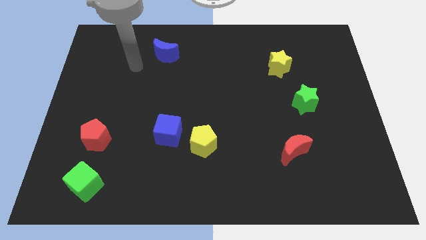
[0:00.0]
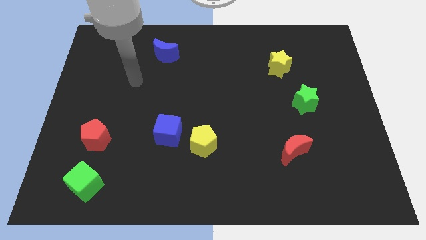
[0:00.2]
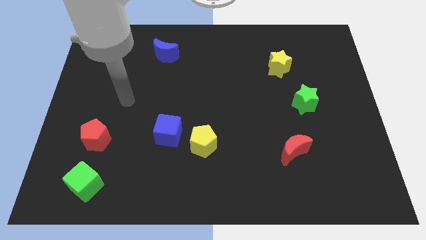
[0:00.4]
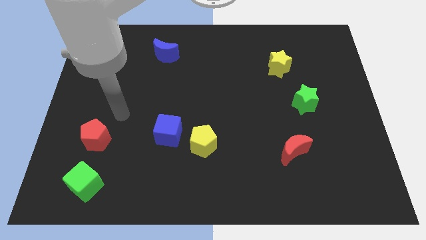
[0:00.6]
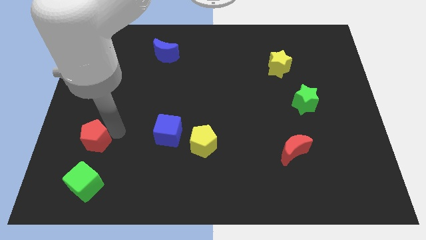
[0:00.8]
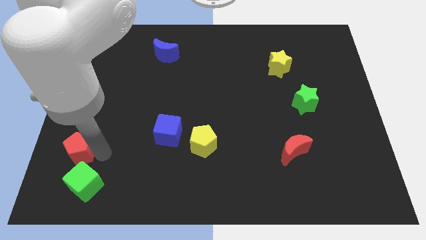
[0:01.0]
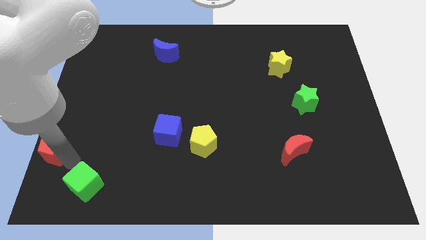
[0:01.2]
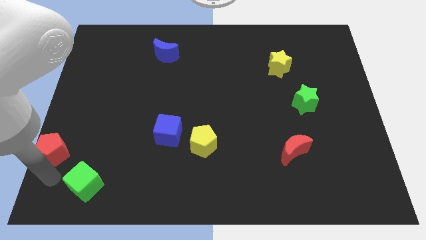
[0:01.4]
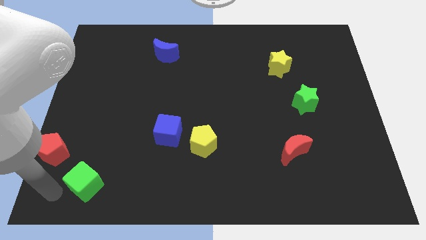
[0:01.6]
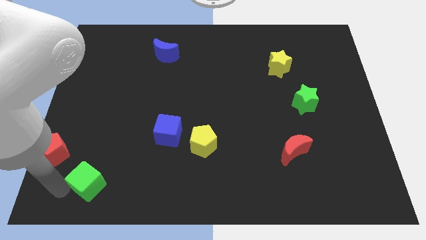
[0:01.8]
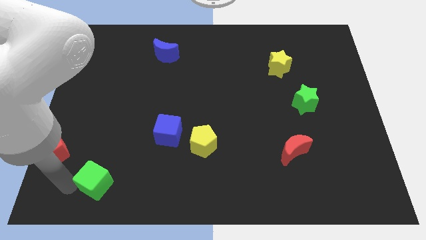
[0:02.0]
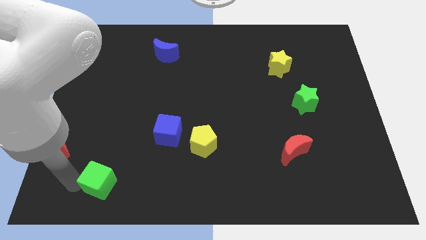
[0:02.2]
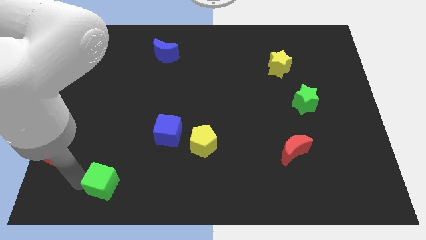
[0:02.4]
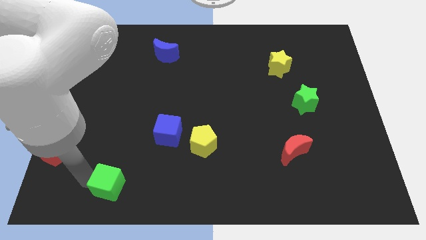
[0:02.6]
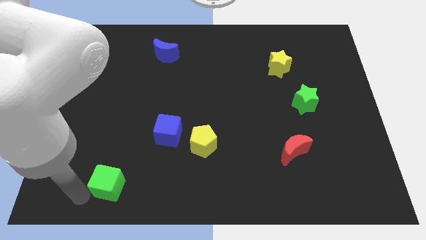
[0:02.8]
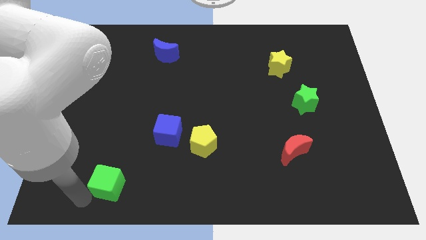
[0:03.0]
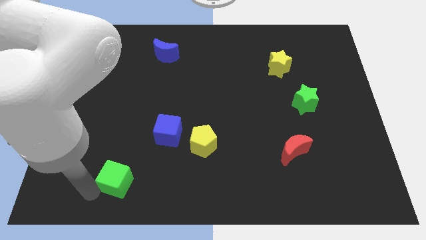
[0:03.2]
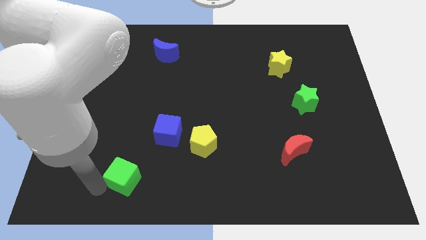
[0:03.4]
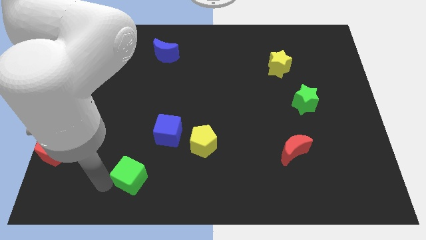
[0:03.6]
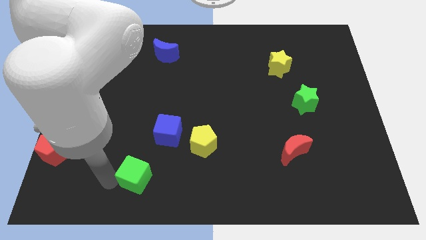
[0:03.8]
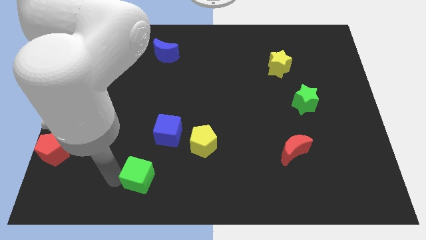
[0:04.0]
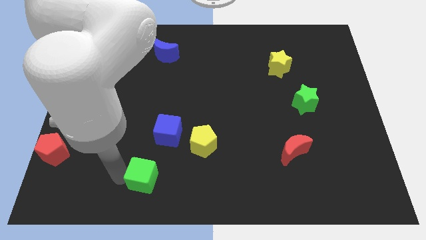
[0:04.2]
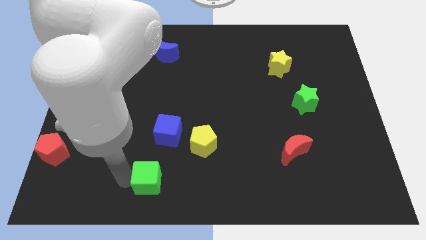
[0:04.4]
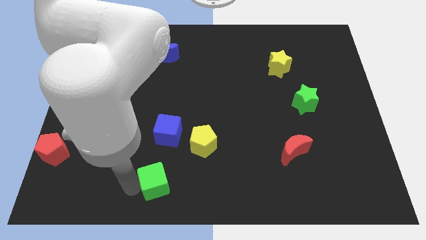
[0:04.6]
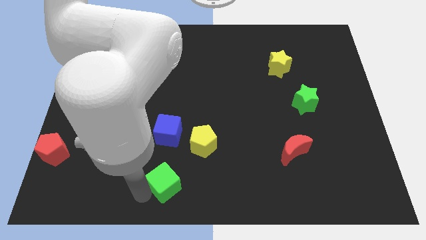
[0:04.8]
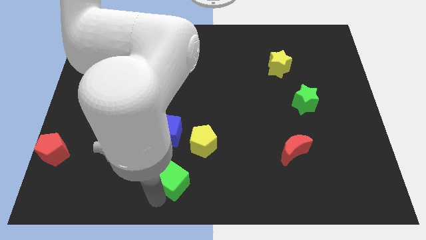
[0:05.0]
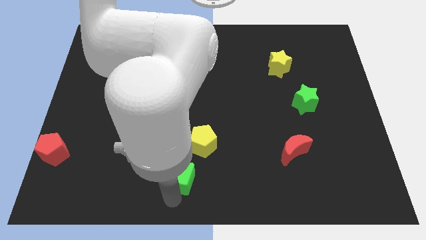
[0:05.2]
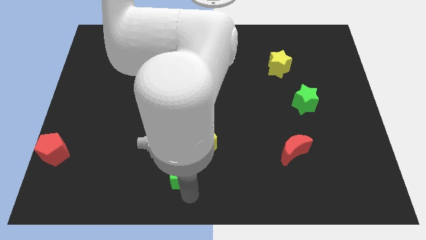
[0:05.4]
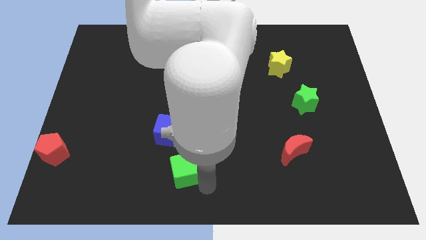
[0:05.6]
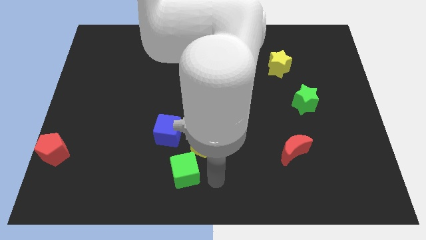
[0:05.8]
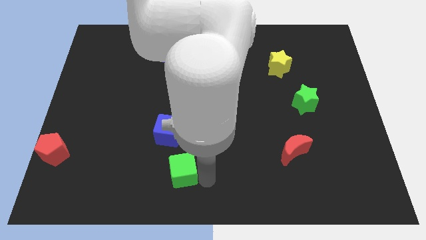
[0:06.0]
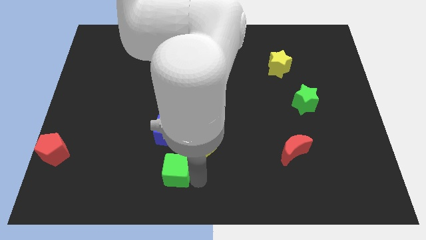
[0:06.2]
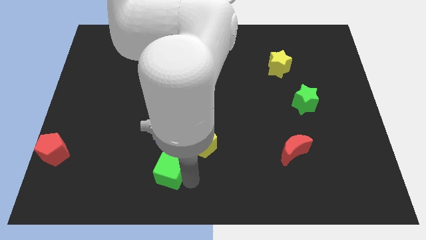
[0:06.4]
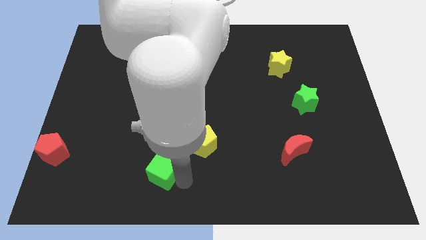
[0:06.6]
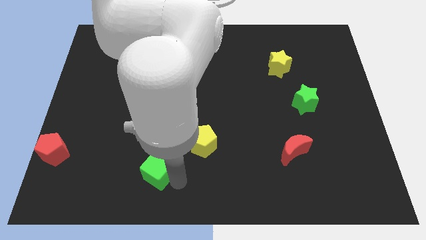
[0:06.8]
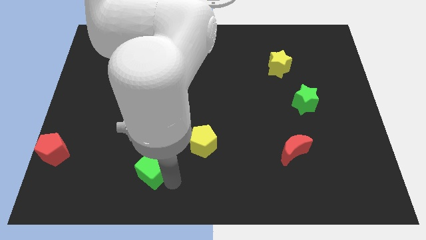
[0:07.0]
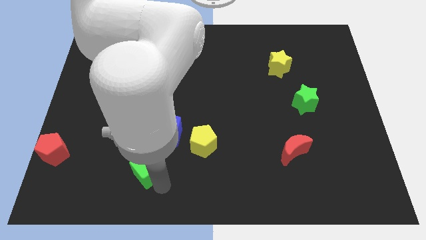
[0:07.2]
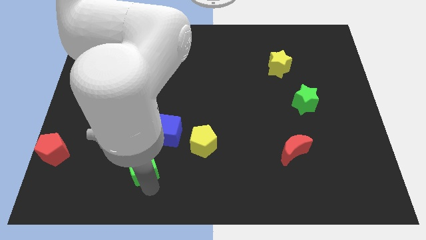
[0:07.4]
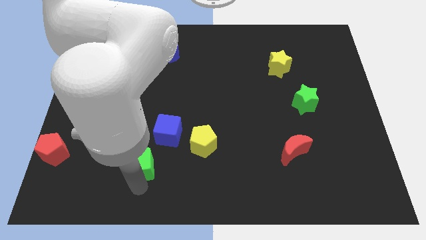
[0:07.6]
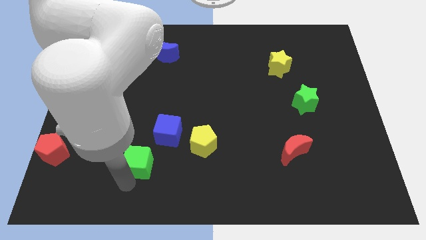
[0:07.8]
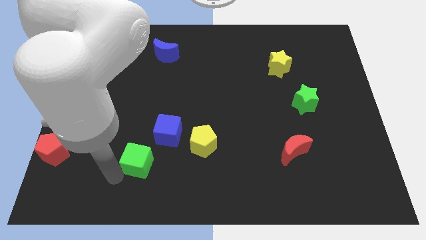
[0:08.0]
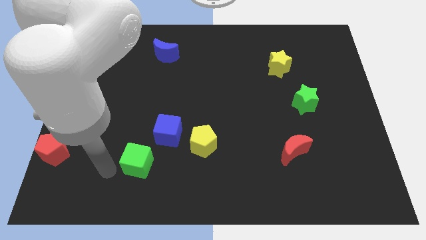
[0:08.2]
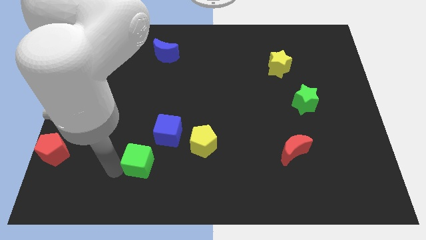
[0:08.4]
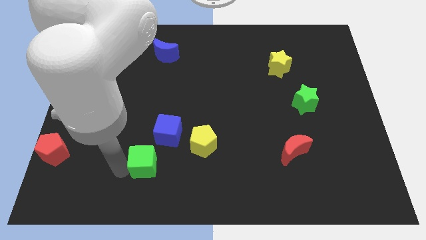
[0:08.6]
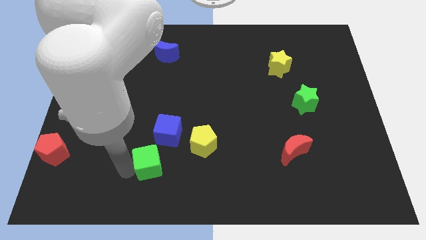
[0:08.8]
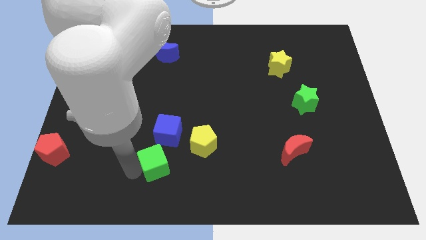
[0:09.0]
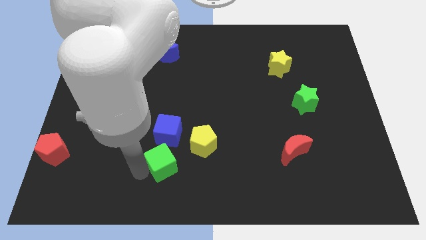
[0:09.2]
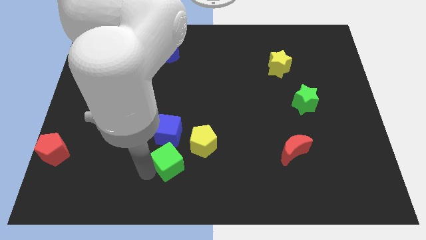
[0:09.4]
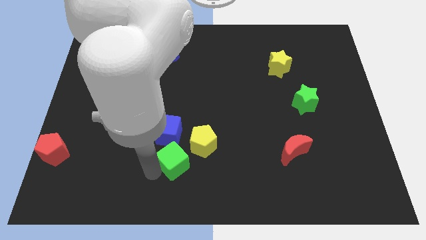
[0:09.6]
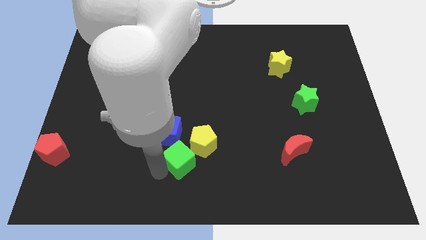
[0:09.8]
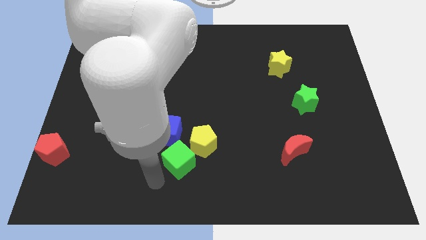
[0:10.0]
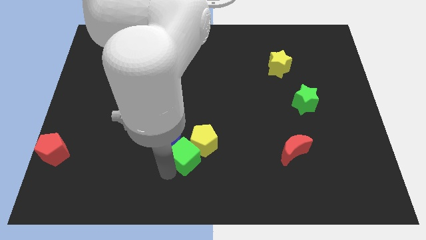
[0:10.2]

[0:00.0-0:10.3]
put the green cube to the yellow pentagon

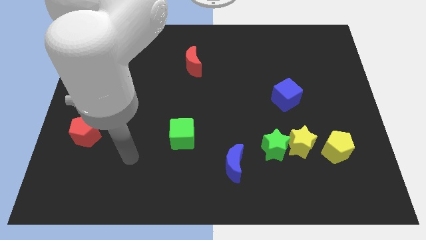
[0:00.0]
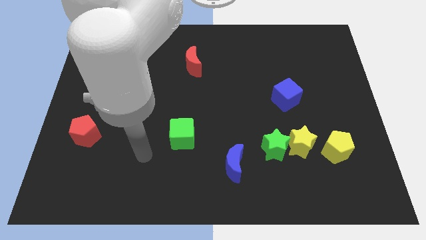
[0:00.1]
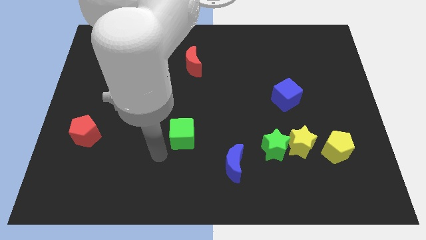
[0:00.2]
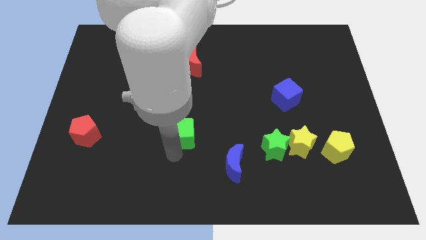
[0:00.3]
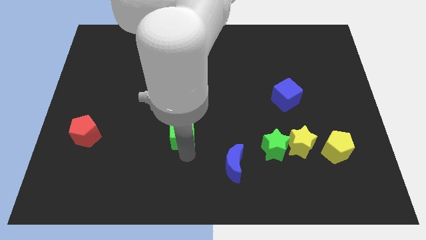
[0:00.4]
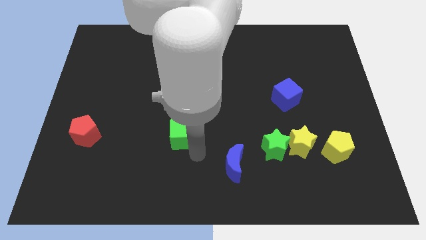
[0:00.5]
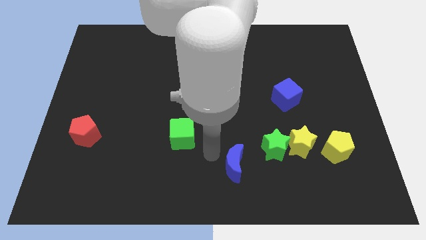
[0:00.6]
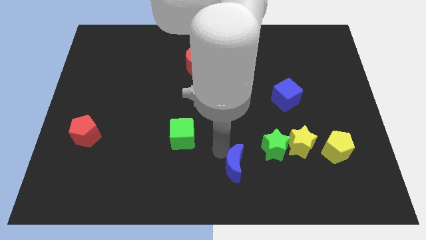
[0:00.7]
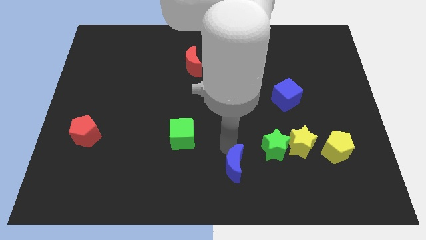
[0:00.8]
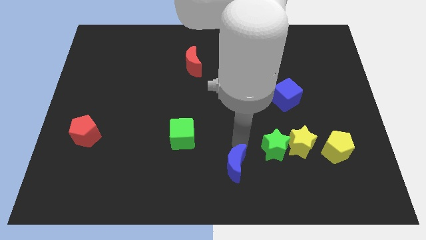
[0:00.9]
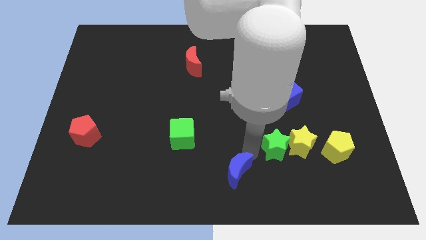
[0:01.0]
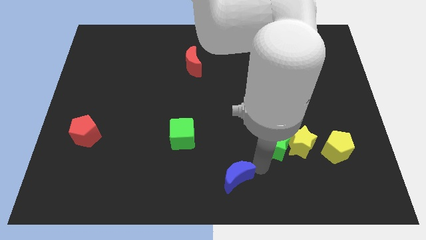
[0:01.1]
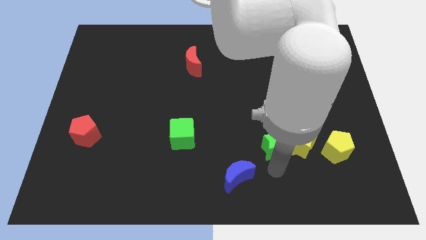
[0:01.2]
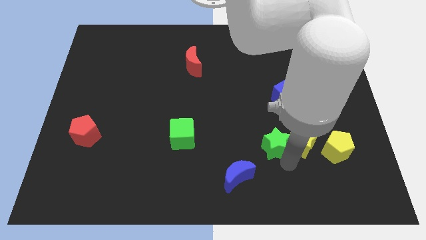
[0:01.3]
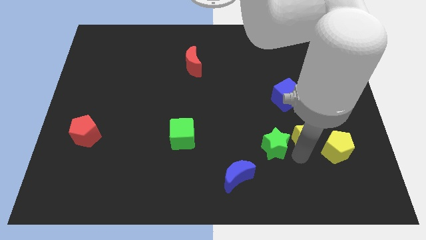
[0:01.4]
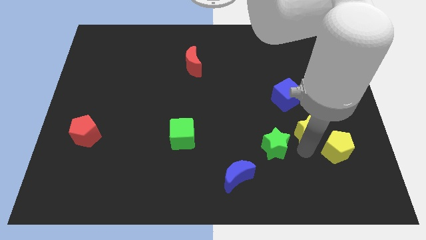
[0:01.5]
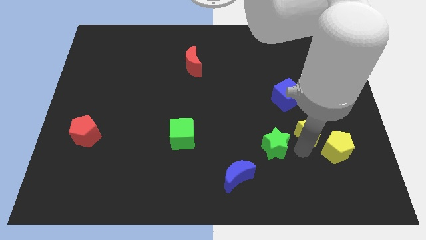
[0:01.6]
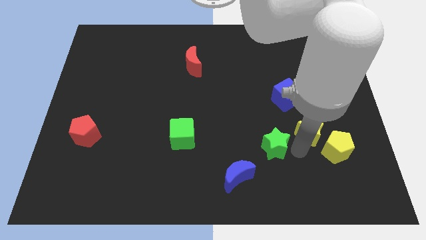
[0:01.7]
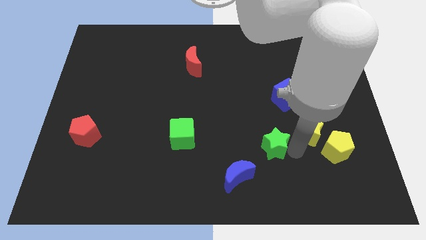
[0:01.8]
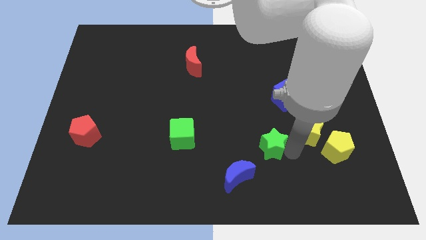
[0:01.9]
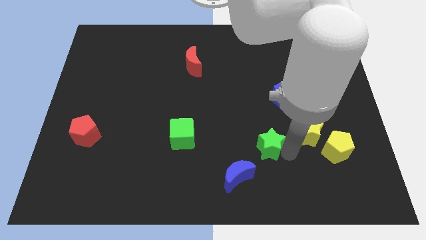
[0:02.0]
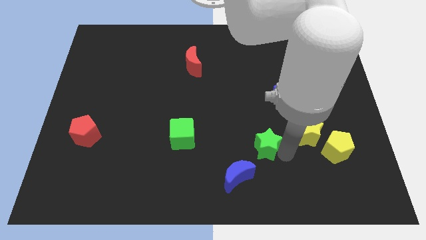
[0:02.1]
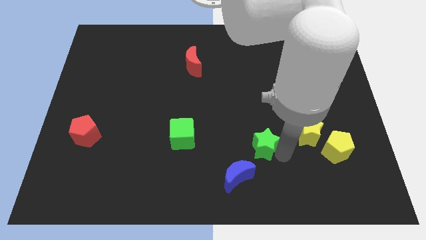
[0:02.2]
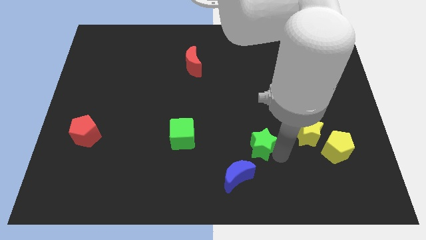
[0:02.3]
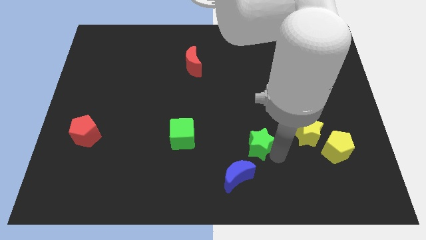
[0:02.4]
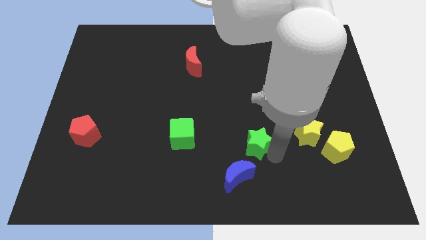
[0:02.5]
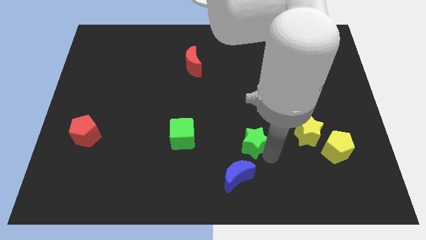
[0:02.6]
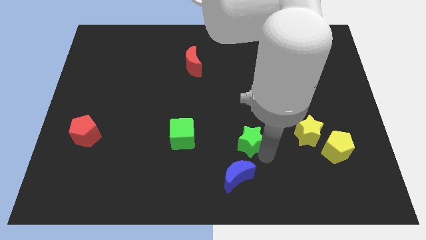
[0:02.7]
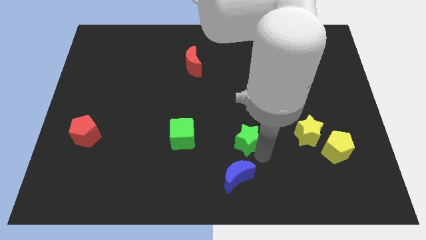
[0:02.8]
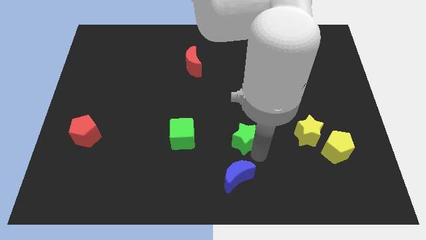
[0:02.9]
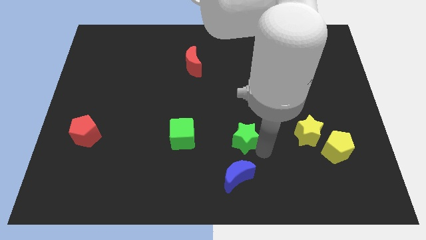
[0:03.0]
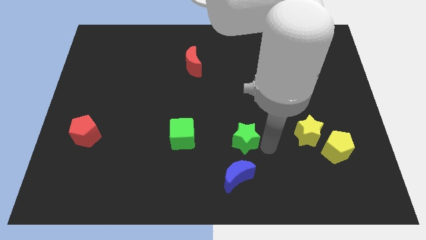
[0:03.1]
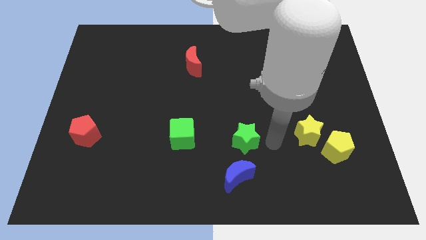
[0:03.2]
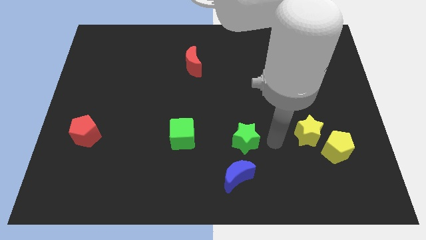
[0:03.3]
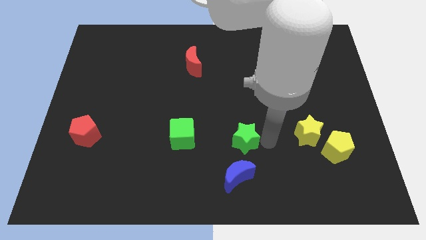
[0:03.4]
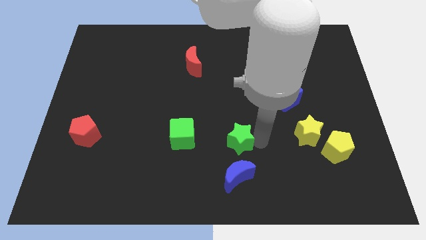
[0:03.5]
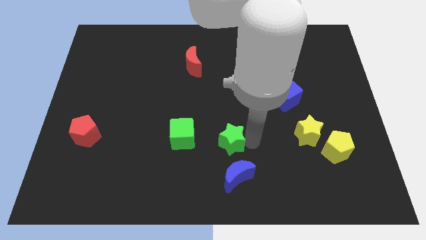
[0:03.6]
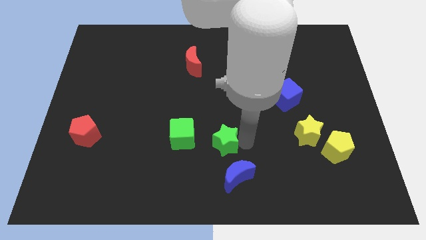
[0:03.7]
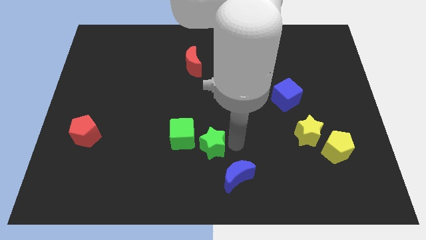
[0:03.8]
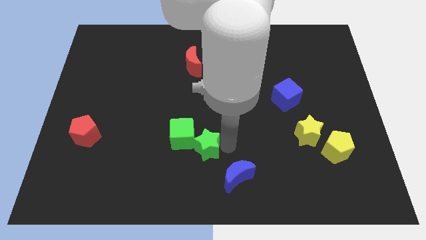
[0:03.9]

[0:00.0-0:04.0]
push the green star next to the green cube
